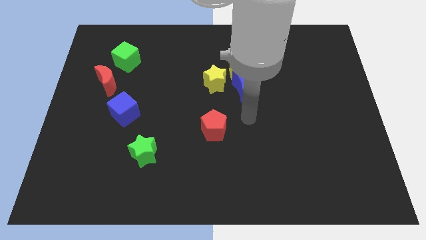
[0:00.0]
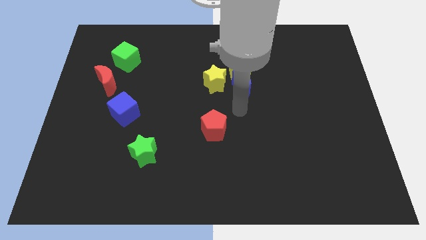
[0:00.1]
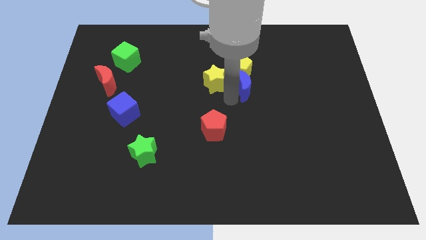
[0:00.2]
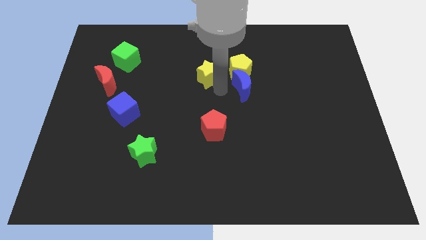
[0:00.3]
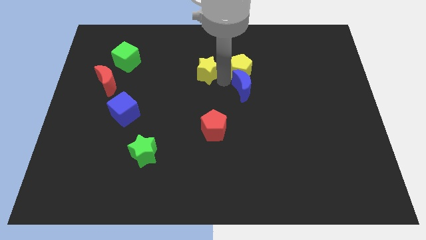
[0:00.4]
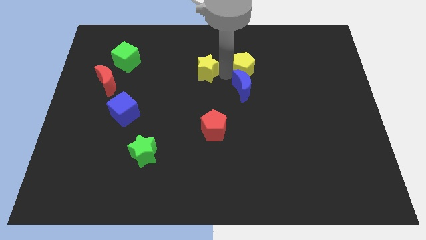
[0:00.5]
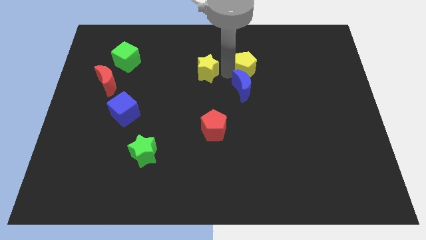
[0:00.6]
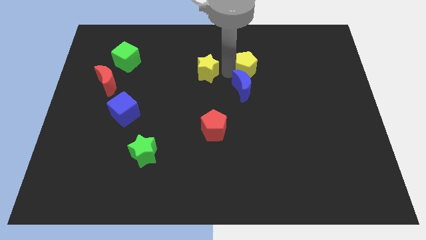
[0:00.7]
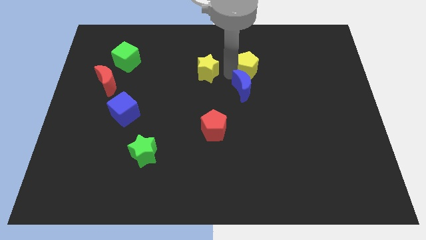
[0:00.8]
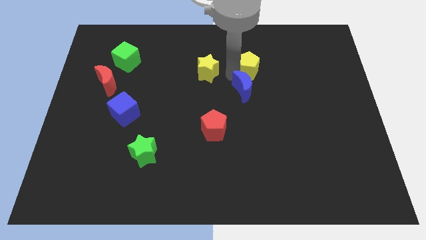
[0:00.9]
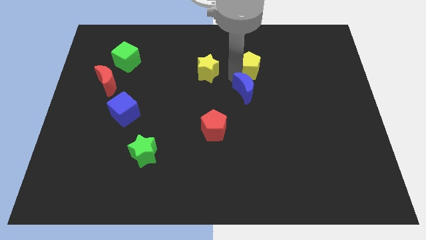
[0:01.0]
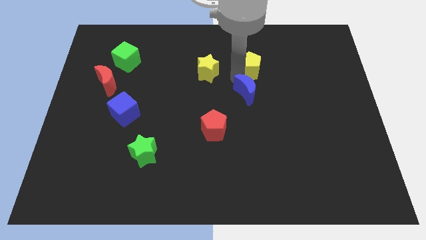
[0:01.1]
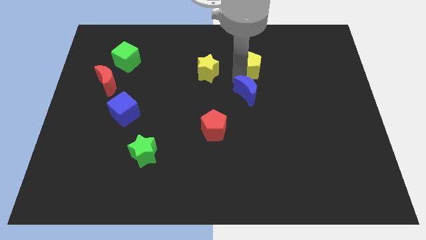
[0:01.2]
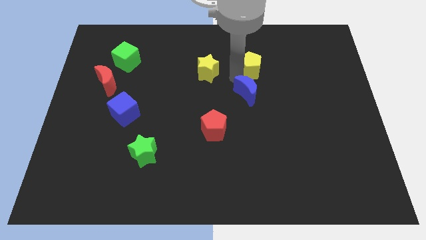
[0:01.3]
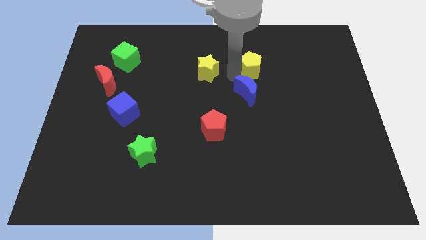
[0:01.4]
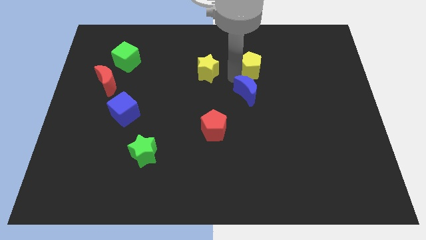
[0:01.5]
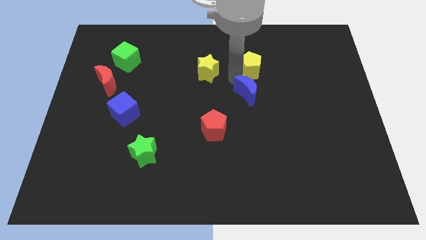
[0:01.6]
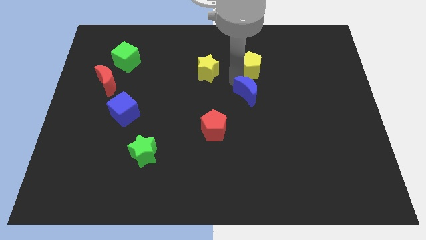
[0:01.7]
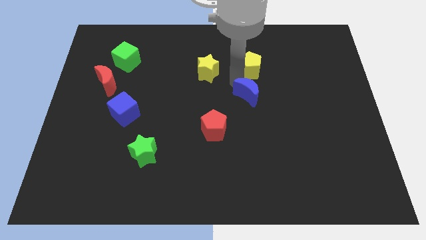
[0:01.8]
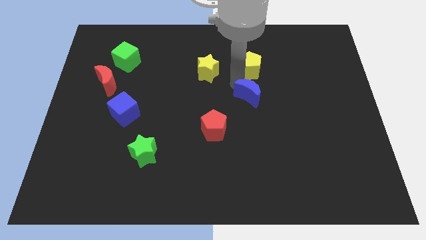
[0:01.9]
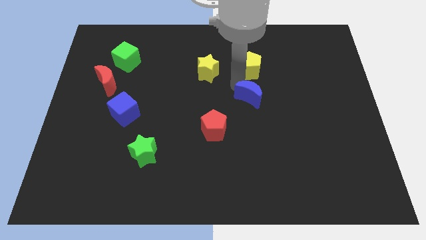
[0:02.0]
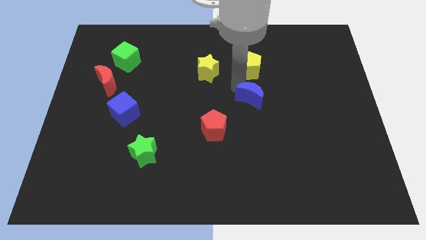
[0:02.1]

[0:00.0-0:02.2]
pull the blue moon apart from the yellow pentagon and yellow star

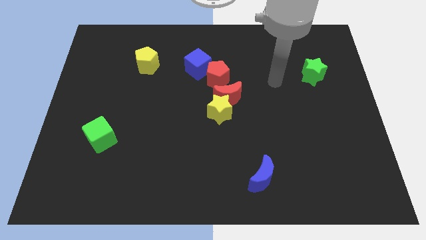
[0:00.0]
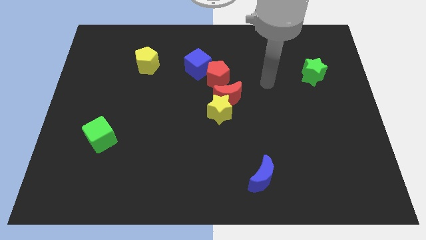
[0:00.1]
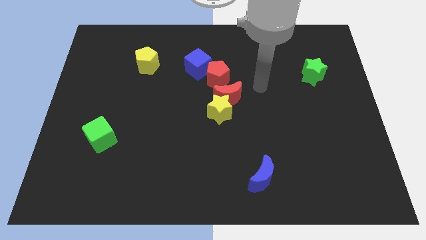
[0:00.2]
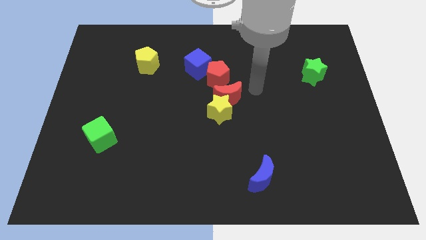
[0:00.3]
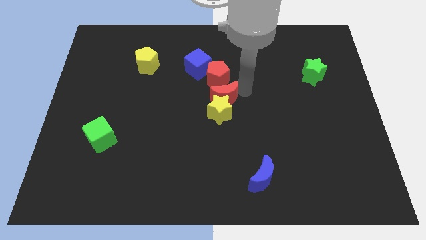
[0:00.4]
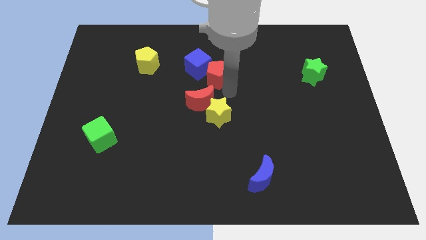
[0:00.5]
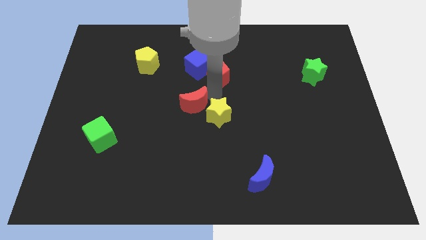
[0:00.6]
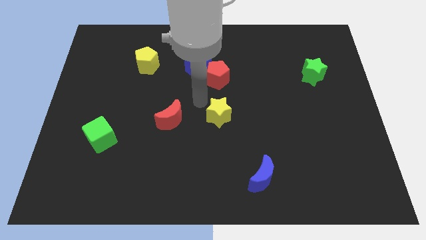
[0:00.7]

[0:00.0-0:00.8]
move the yellow star away from the red moon

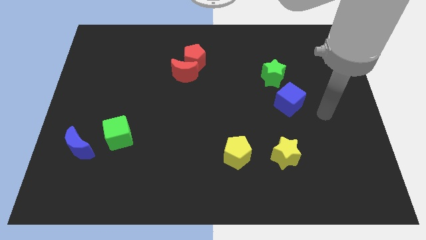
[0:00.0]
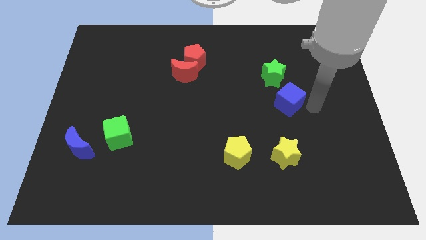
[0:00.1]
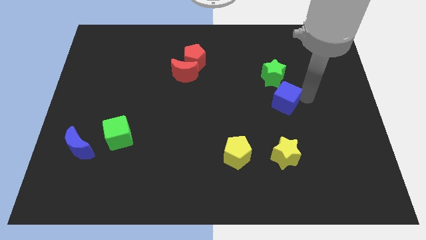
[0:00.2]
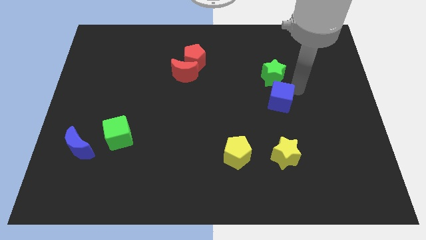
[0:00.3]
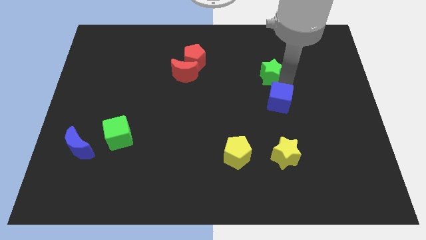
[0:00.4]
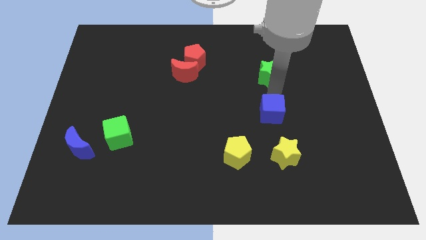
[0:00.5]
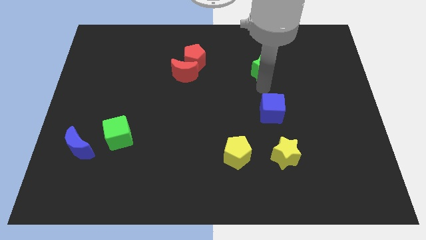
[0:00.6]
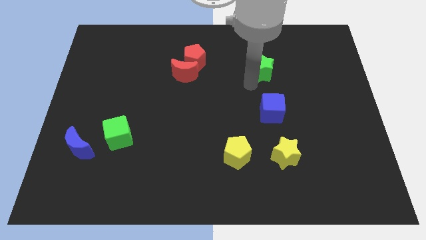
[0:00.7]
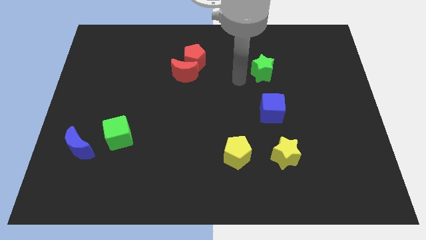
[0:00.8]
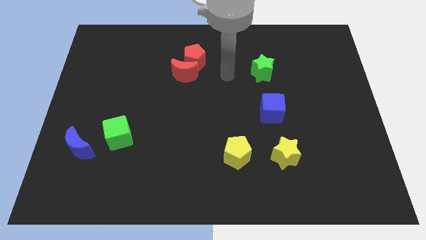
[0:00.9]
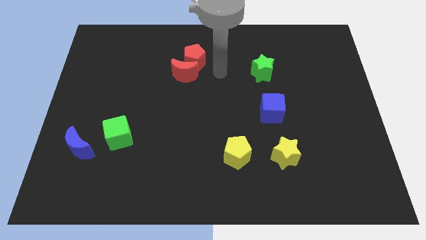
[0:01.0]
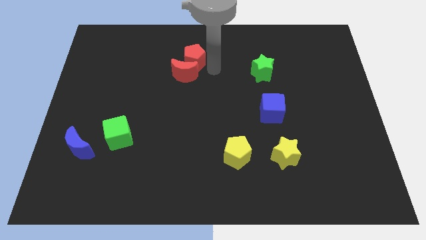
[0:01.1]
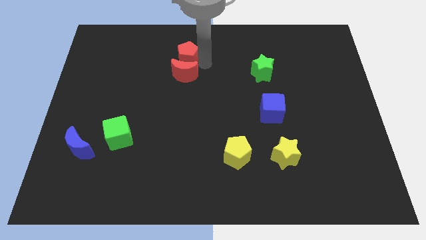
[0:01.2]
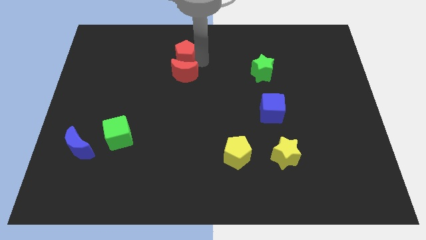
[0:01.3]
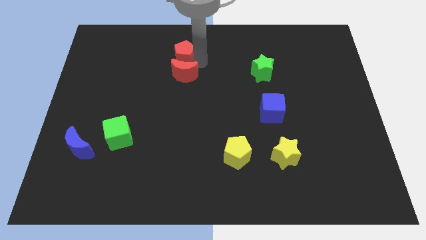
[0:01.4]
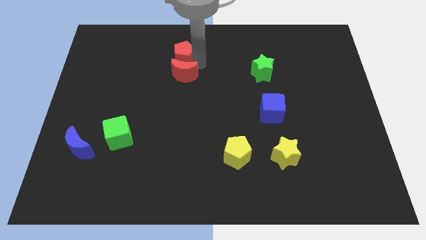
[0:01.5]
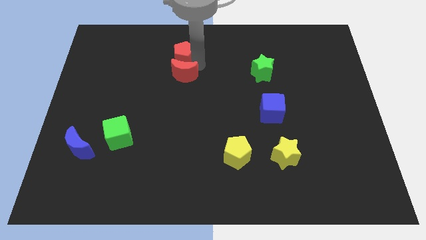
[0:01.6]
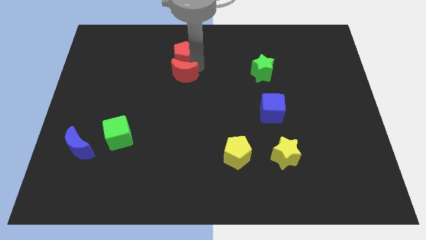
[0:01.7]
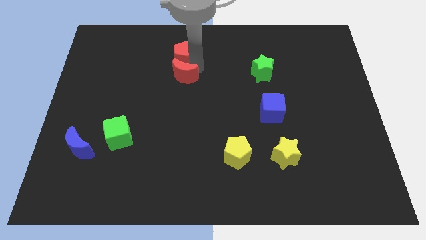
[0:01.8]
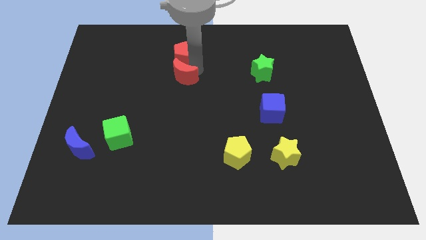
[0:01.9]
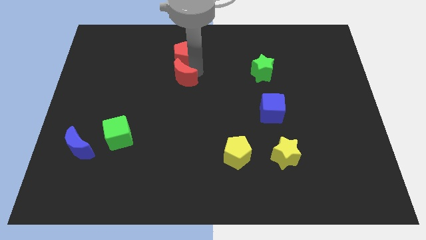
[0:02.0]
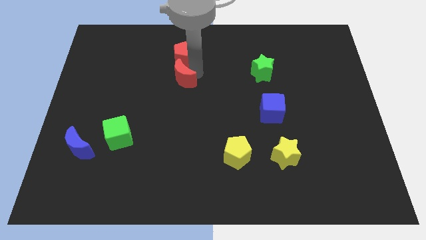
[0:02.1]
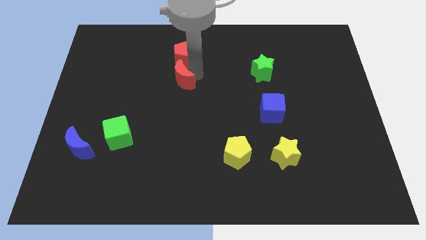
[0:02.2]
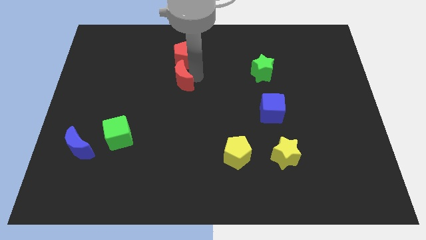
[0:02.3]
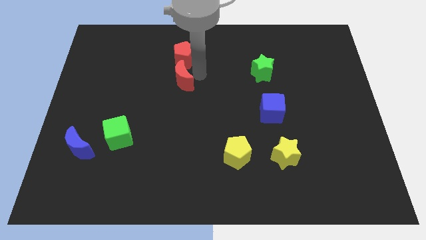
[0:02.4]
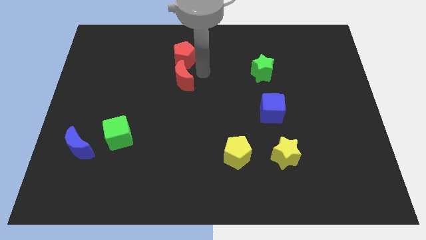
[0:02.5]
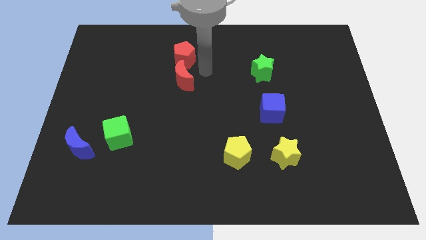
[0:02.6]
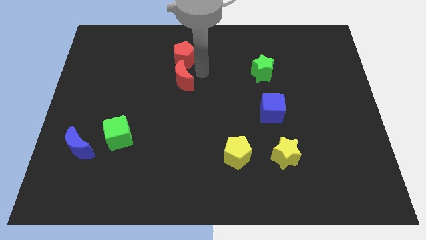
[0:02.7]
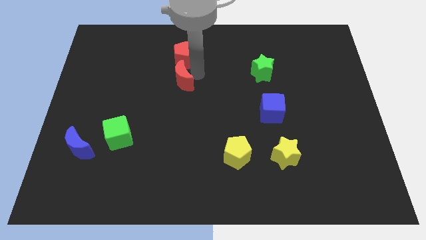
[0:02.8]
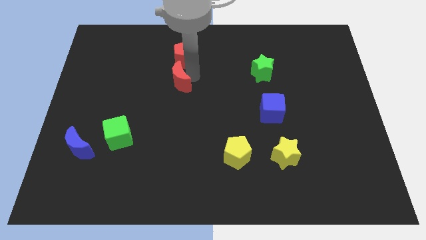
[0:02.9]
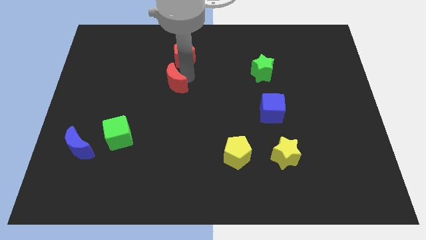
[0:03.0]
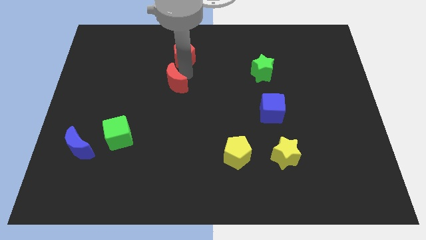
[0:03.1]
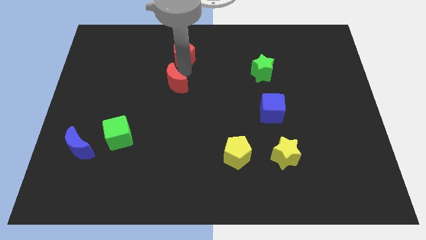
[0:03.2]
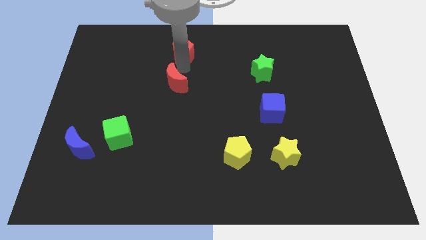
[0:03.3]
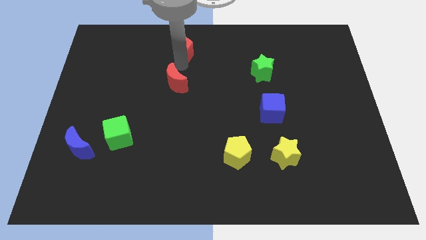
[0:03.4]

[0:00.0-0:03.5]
separate the red moon from the red pentagon

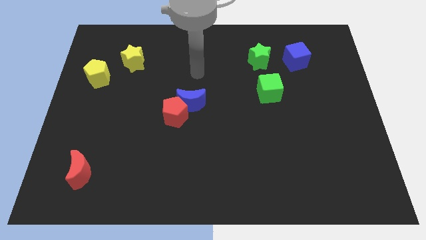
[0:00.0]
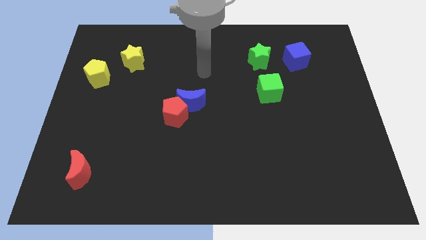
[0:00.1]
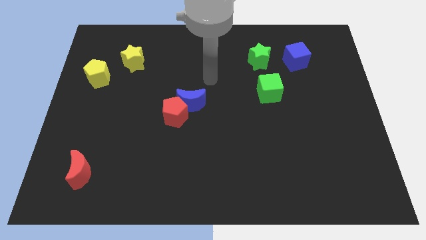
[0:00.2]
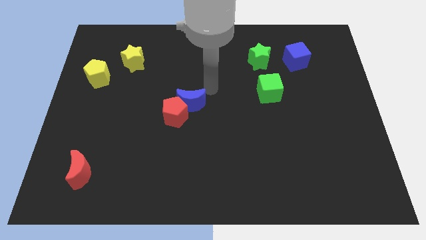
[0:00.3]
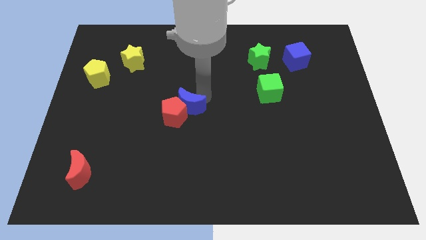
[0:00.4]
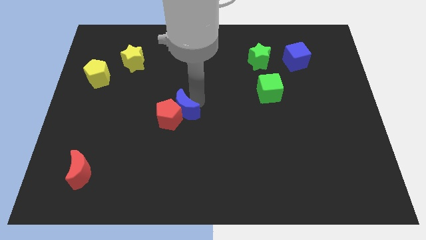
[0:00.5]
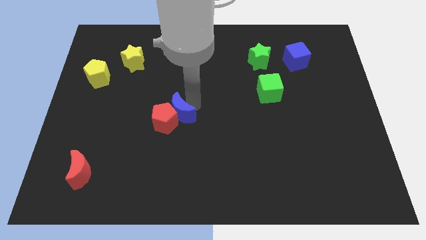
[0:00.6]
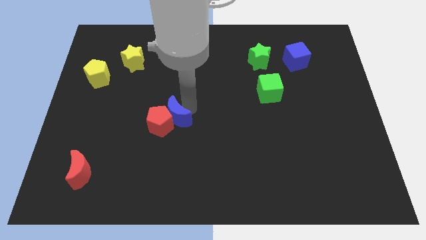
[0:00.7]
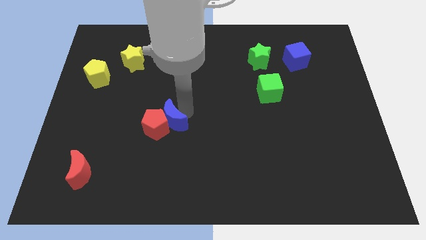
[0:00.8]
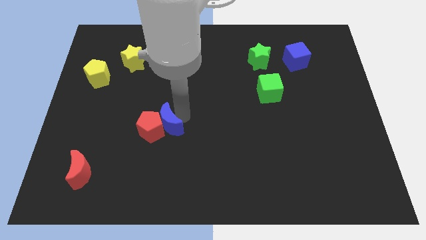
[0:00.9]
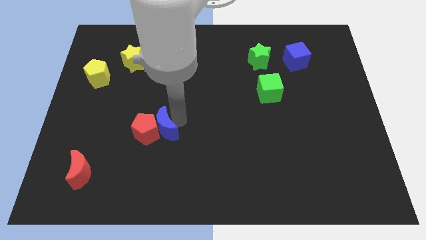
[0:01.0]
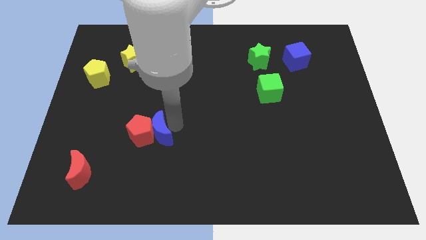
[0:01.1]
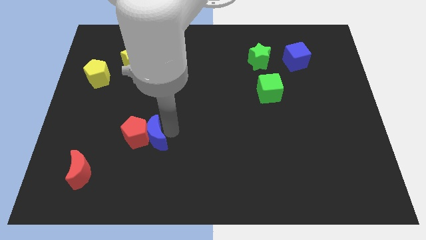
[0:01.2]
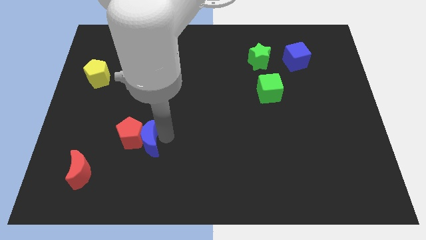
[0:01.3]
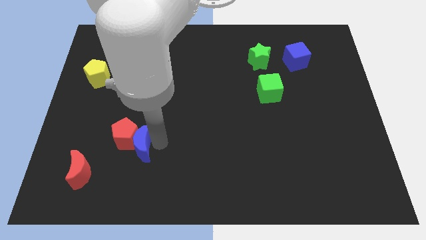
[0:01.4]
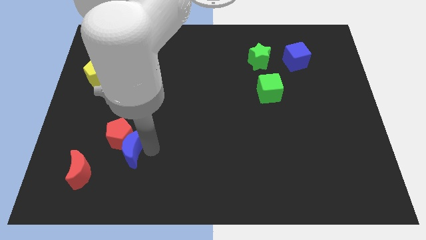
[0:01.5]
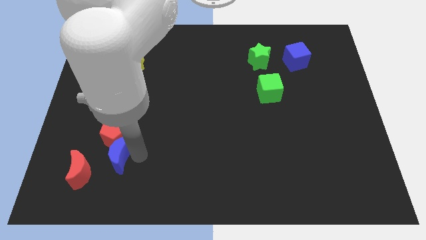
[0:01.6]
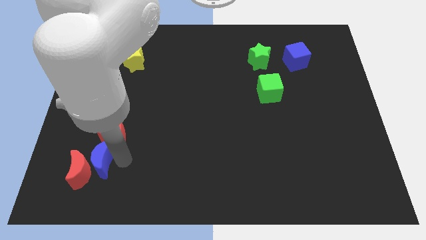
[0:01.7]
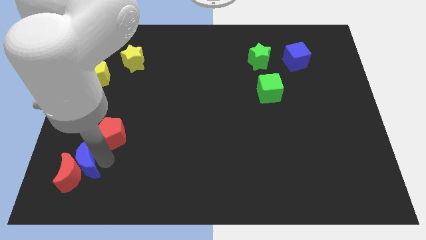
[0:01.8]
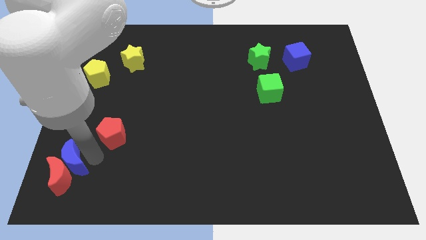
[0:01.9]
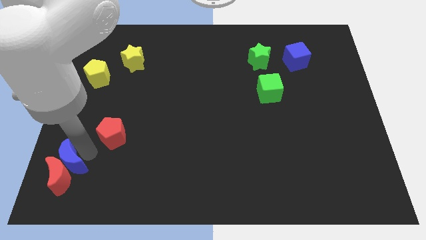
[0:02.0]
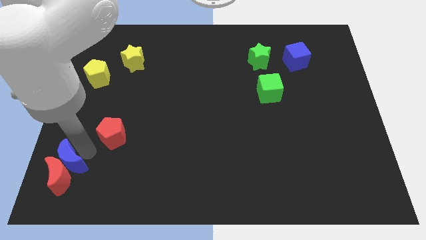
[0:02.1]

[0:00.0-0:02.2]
pull the red pentagon apart from the blue moon

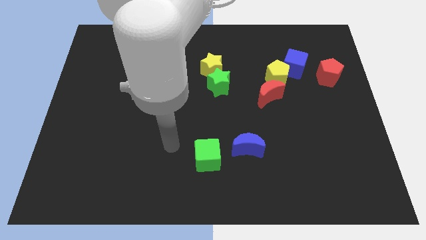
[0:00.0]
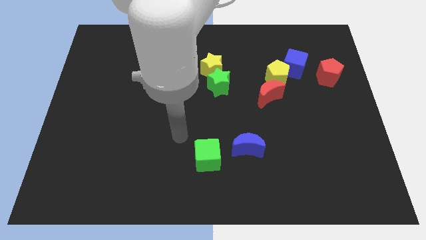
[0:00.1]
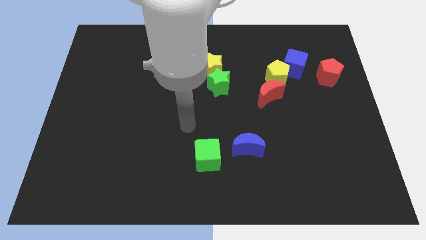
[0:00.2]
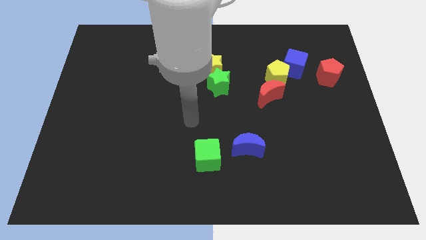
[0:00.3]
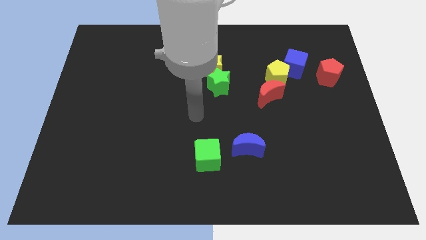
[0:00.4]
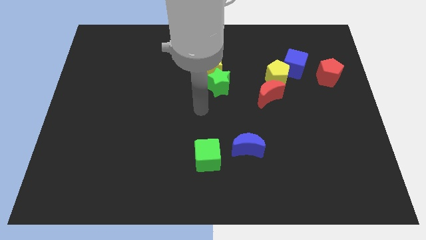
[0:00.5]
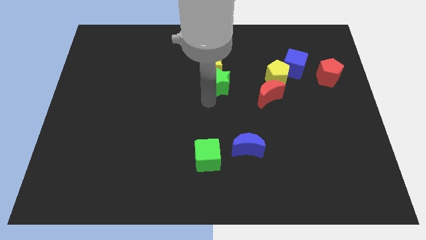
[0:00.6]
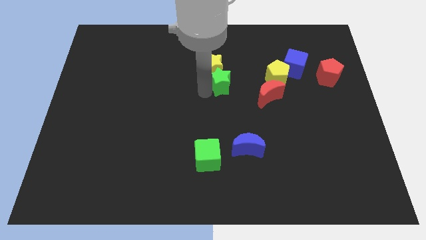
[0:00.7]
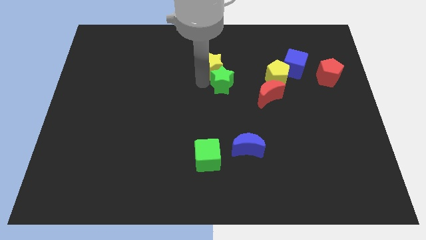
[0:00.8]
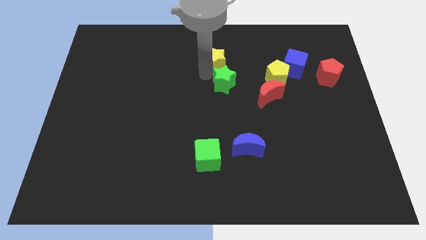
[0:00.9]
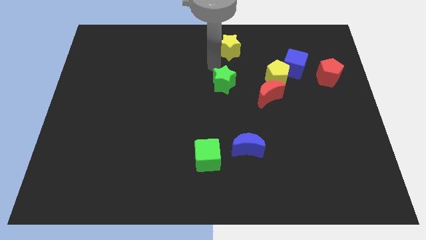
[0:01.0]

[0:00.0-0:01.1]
separate the green star from the yellow star
